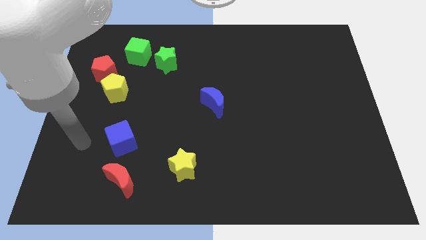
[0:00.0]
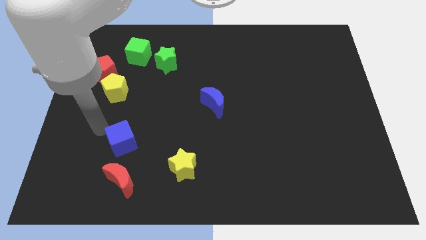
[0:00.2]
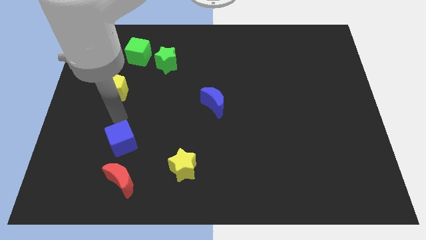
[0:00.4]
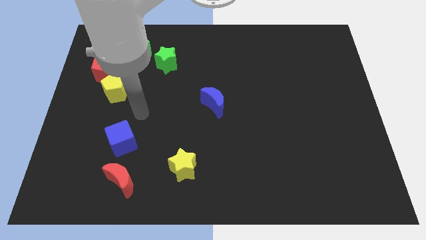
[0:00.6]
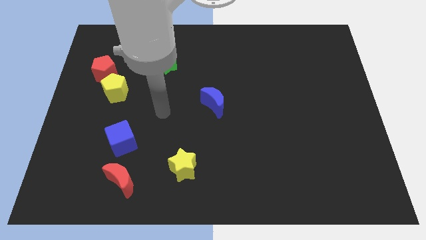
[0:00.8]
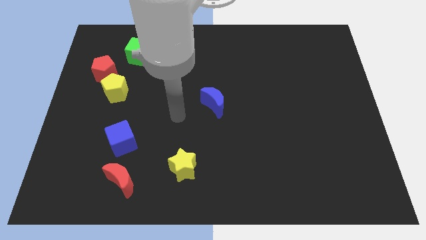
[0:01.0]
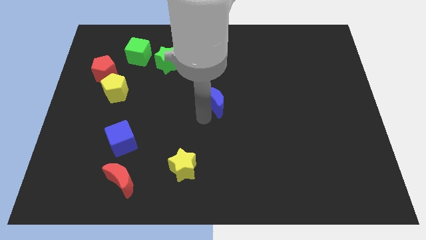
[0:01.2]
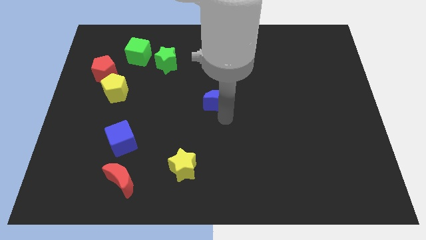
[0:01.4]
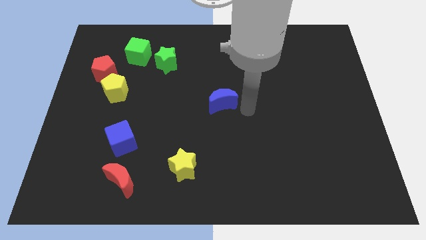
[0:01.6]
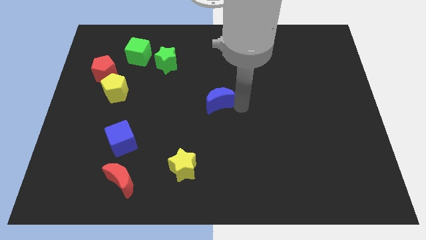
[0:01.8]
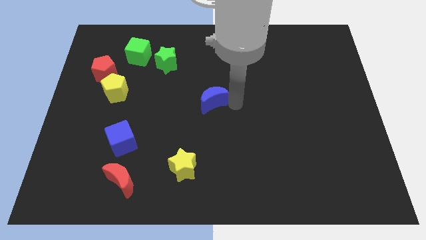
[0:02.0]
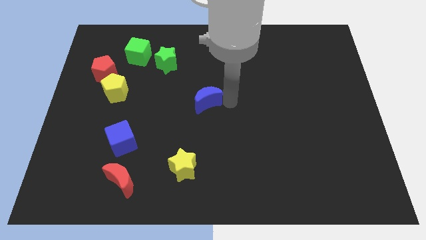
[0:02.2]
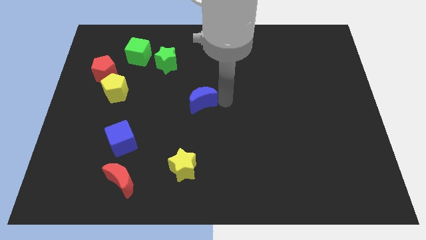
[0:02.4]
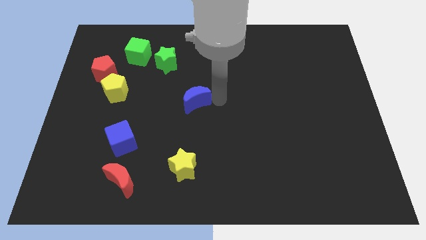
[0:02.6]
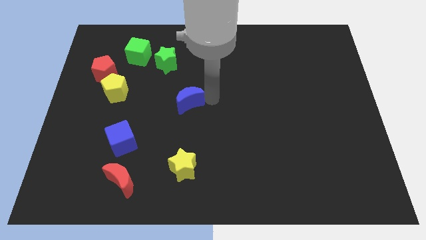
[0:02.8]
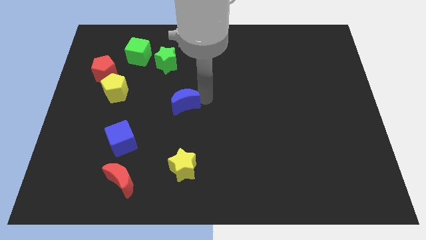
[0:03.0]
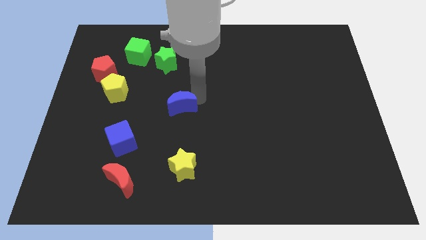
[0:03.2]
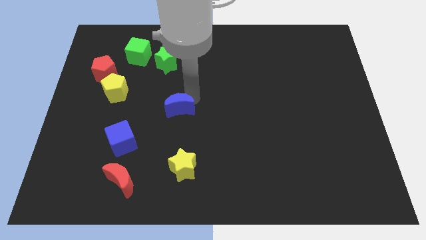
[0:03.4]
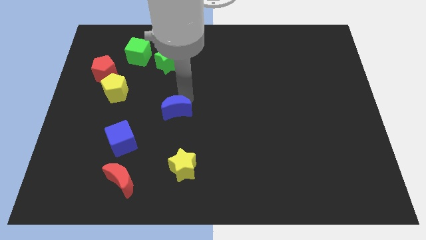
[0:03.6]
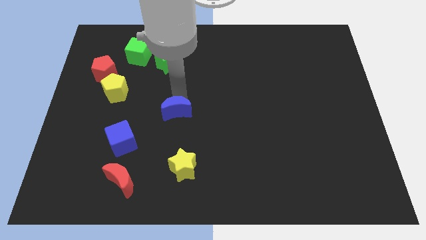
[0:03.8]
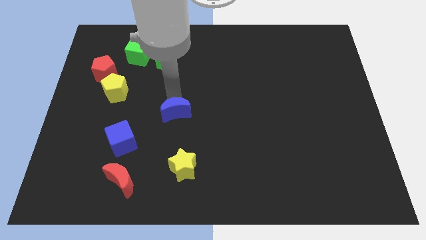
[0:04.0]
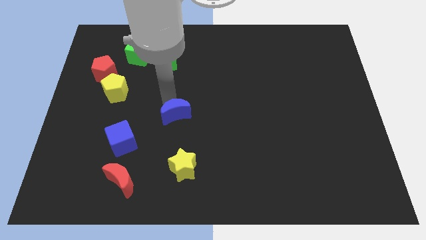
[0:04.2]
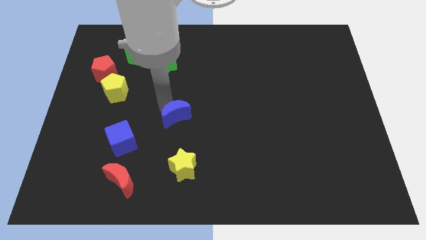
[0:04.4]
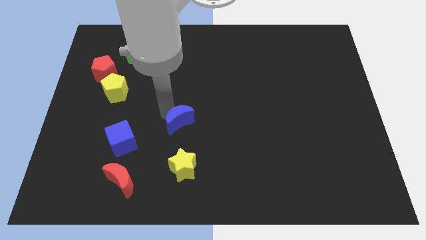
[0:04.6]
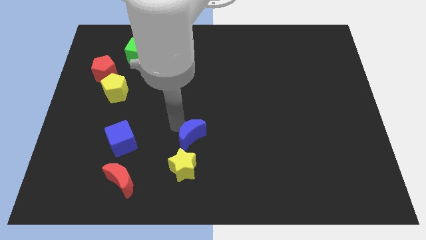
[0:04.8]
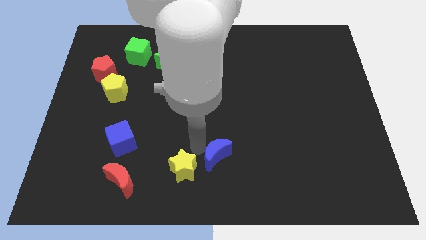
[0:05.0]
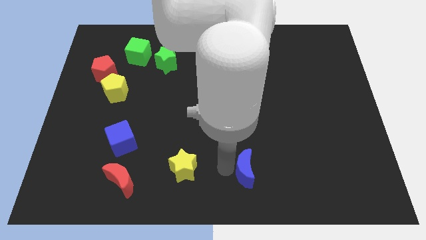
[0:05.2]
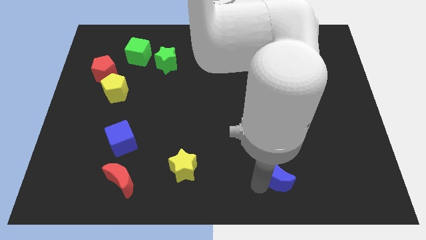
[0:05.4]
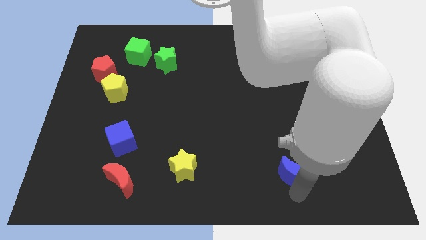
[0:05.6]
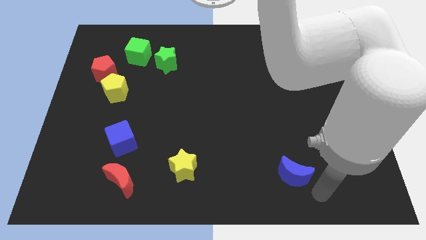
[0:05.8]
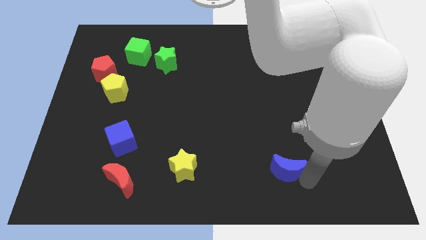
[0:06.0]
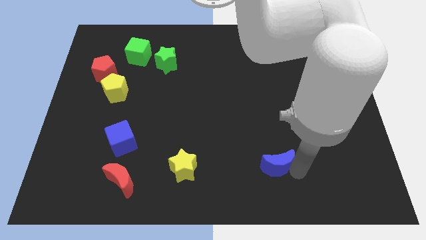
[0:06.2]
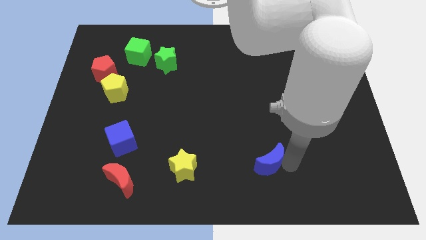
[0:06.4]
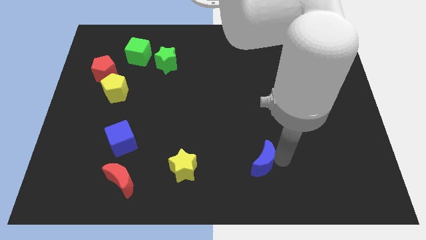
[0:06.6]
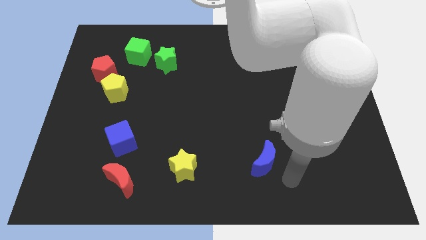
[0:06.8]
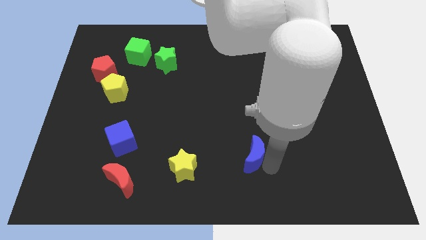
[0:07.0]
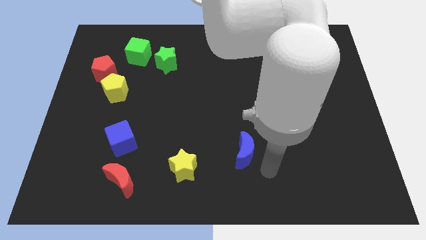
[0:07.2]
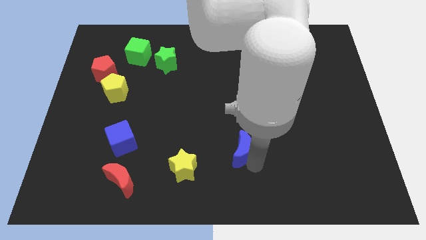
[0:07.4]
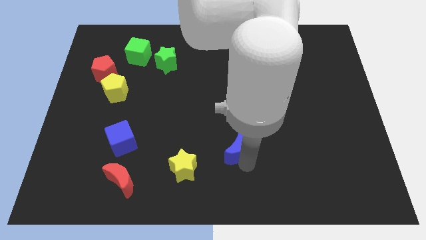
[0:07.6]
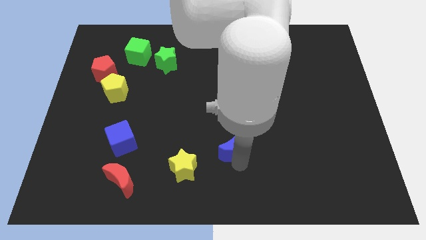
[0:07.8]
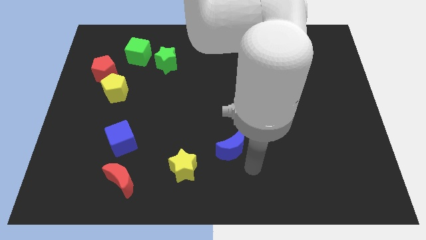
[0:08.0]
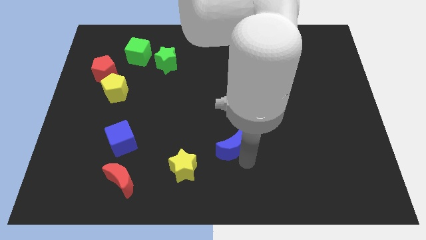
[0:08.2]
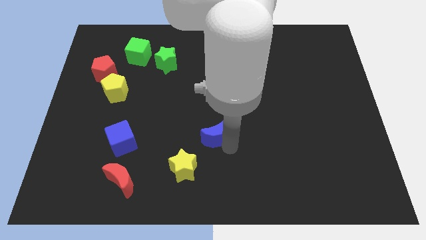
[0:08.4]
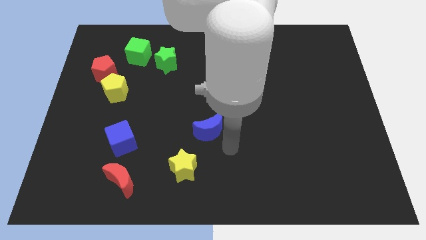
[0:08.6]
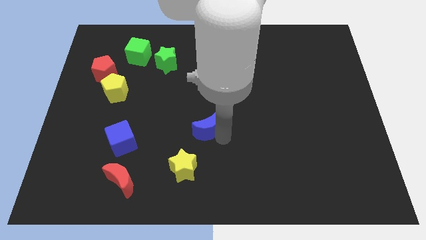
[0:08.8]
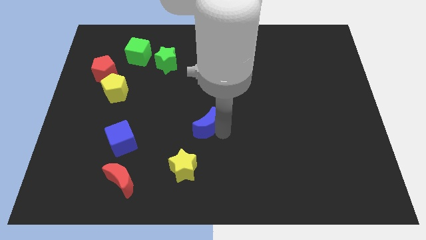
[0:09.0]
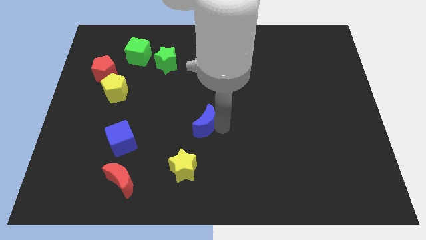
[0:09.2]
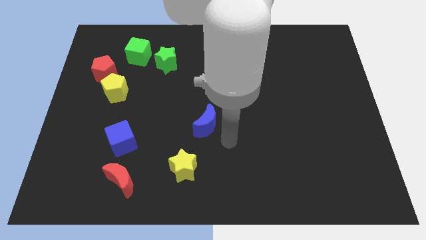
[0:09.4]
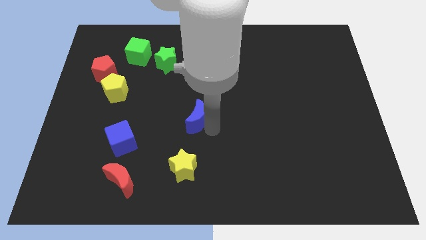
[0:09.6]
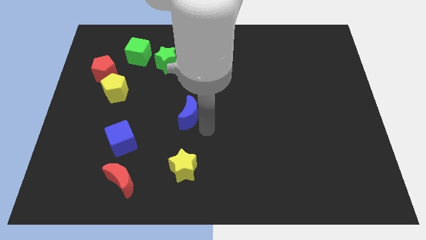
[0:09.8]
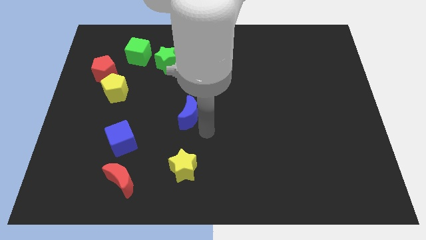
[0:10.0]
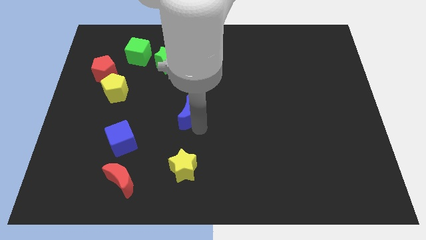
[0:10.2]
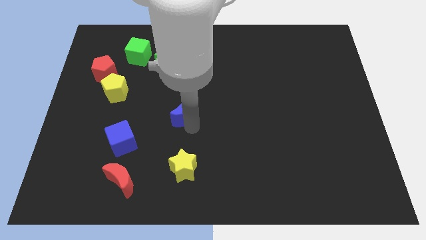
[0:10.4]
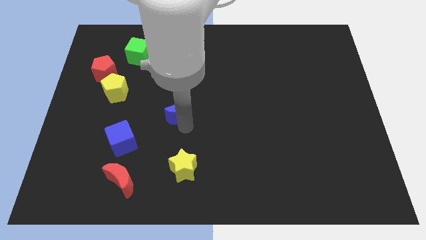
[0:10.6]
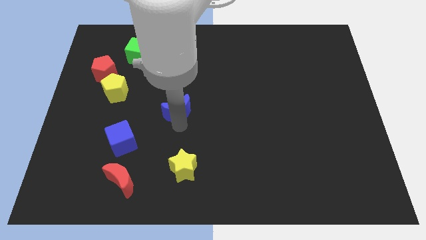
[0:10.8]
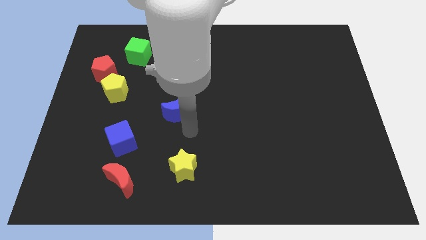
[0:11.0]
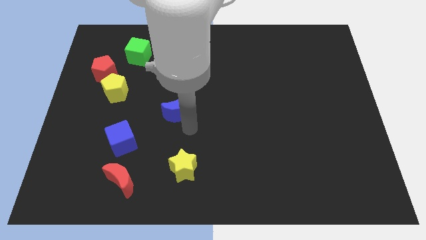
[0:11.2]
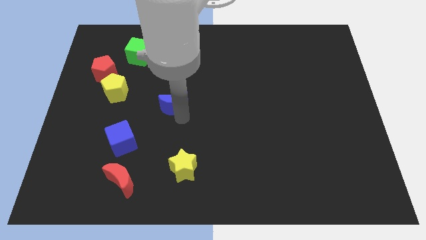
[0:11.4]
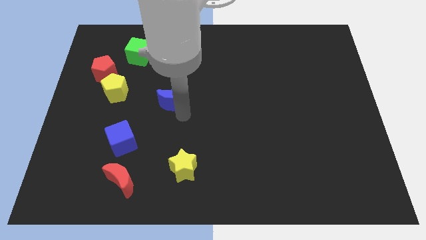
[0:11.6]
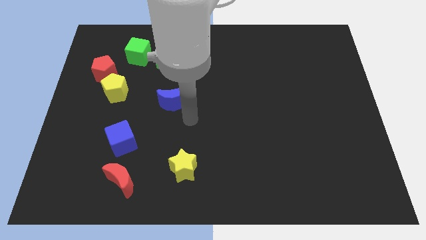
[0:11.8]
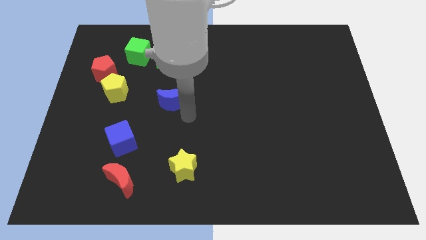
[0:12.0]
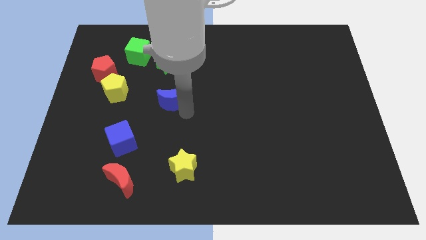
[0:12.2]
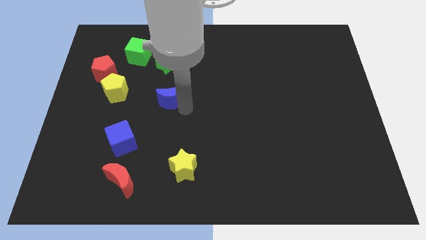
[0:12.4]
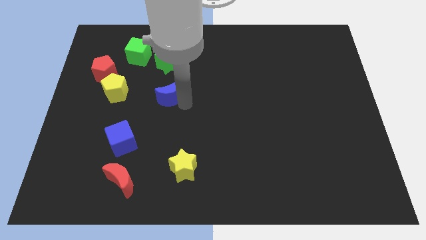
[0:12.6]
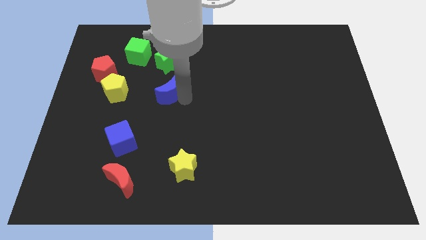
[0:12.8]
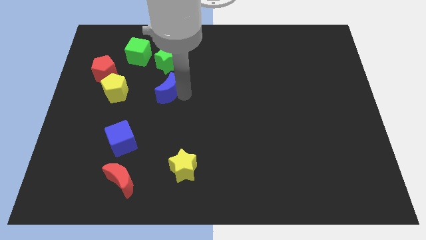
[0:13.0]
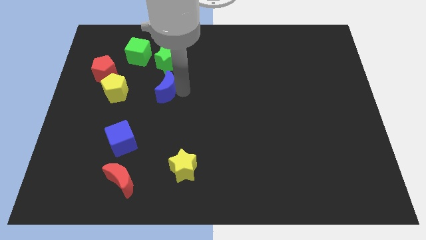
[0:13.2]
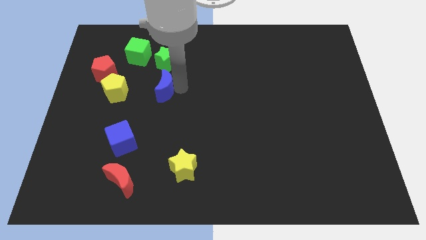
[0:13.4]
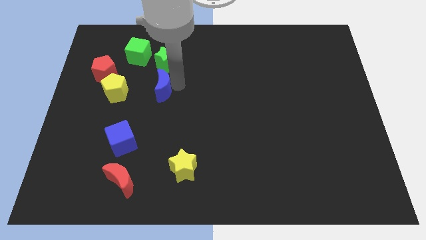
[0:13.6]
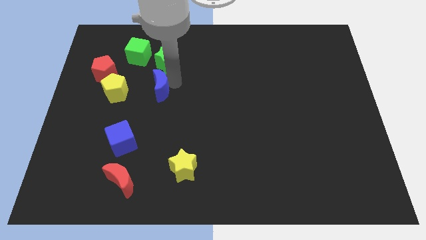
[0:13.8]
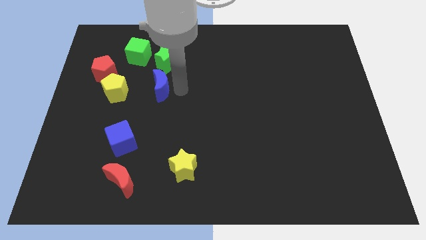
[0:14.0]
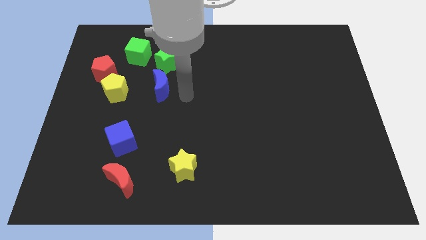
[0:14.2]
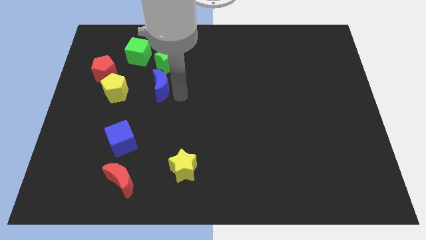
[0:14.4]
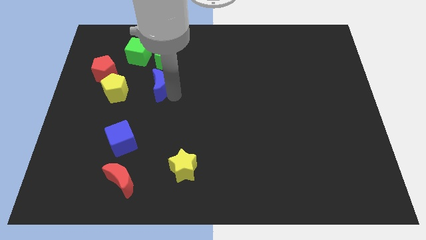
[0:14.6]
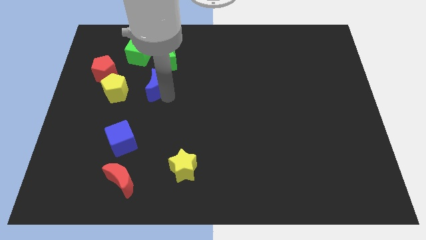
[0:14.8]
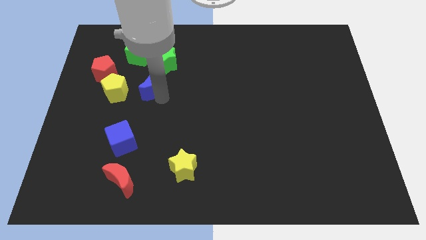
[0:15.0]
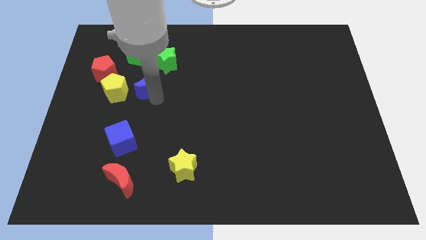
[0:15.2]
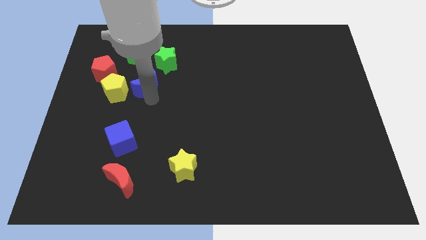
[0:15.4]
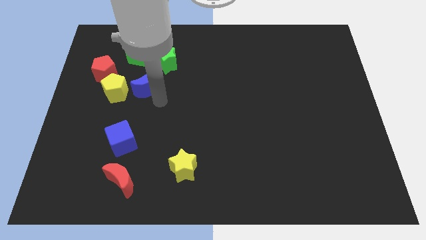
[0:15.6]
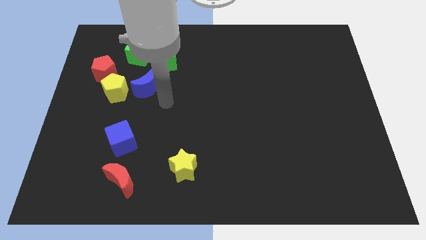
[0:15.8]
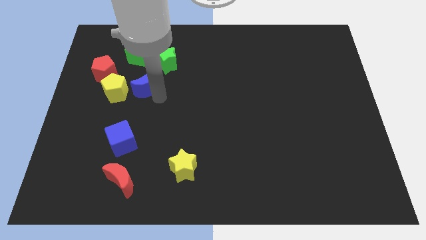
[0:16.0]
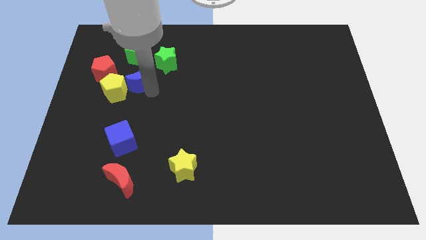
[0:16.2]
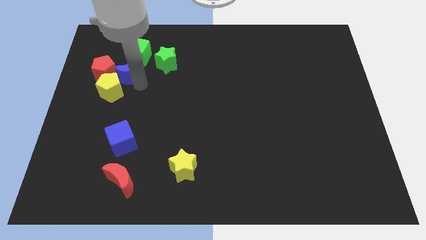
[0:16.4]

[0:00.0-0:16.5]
slide the blue moon just left of the green star
